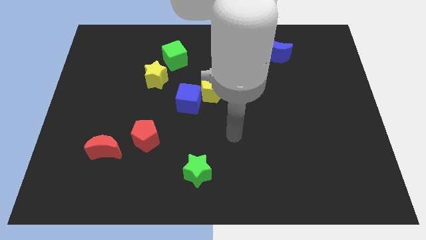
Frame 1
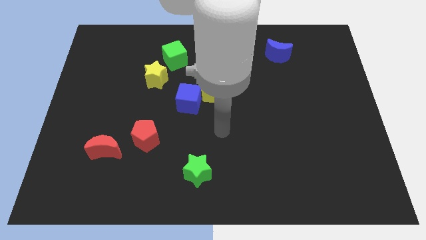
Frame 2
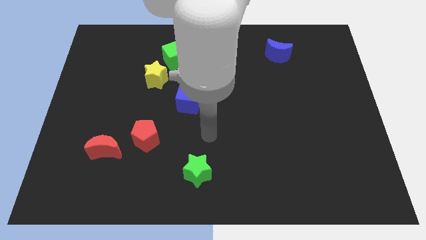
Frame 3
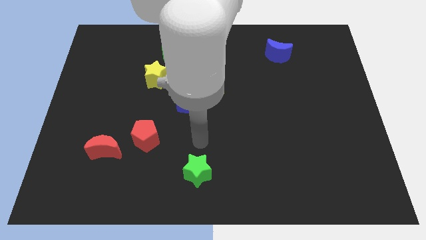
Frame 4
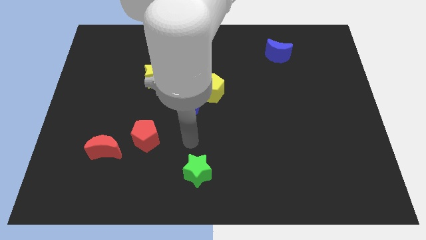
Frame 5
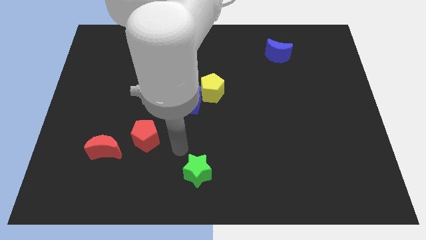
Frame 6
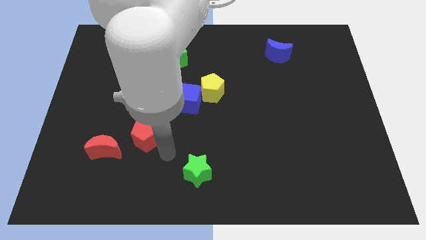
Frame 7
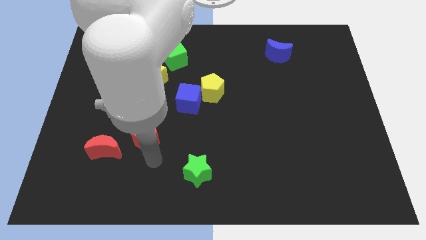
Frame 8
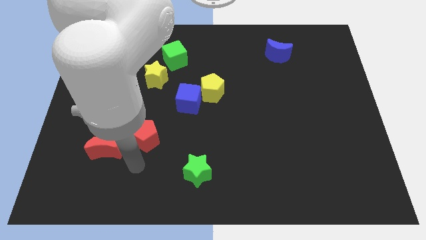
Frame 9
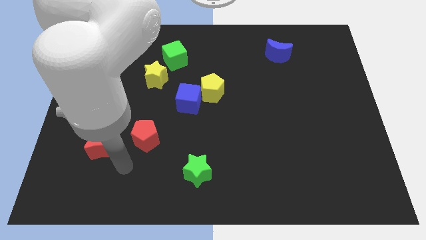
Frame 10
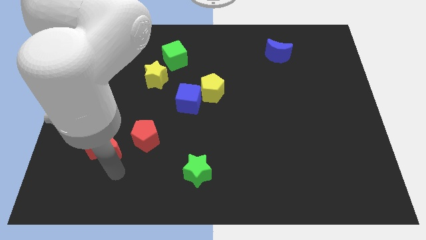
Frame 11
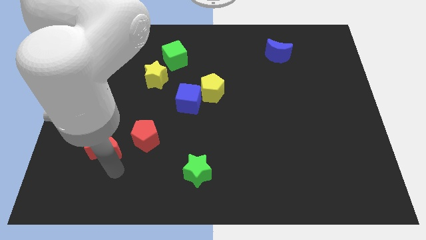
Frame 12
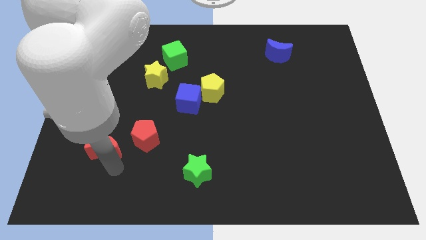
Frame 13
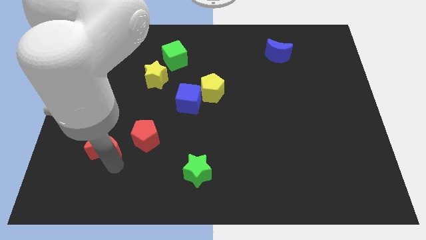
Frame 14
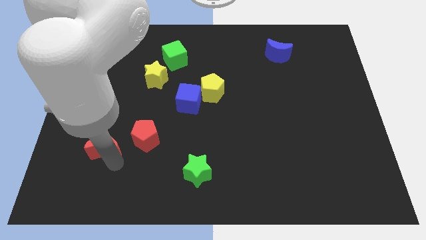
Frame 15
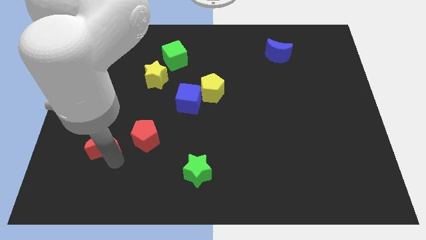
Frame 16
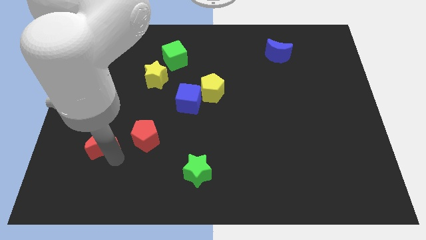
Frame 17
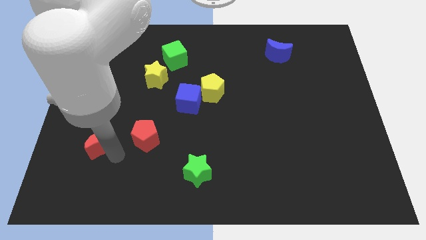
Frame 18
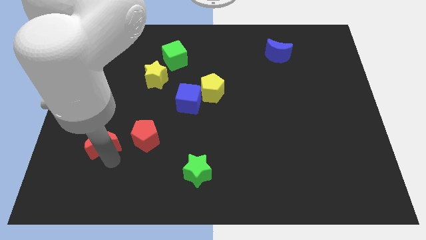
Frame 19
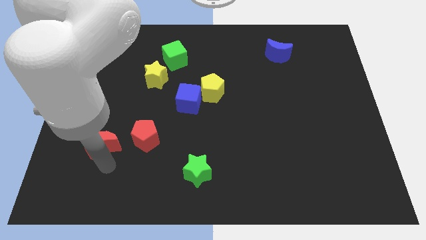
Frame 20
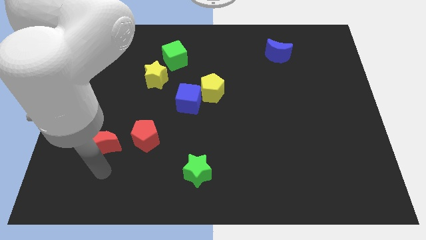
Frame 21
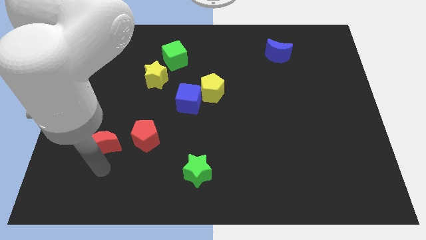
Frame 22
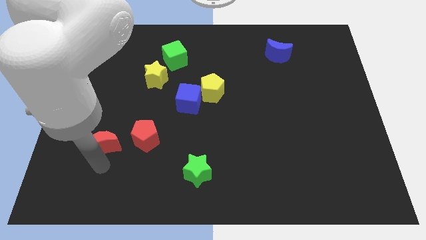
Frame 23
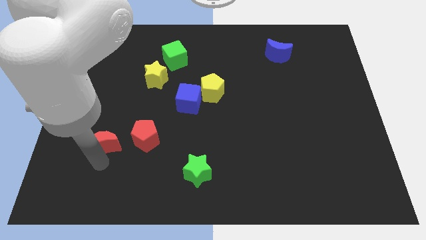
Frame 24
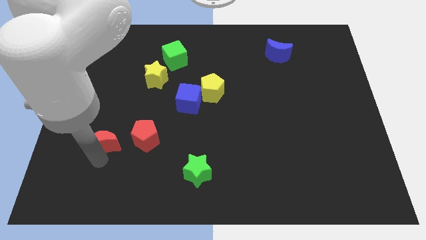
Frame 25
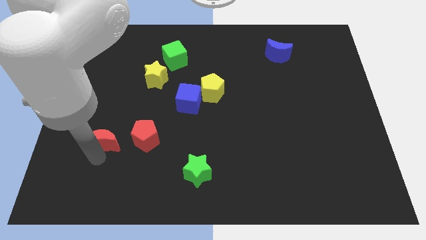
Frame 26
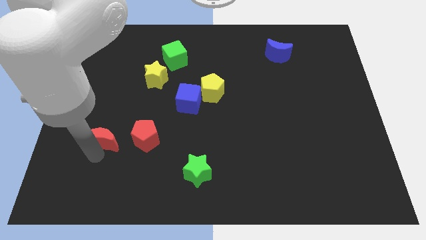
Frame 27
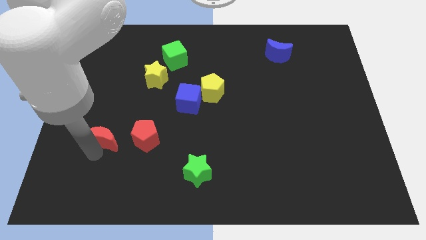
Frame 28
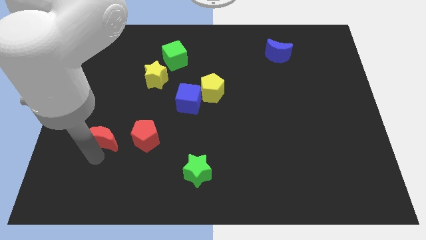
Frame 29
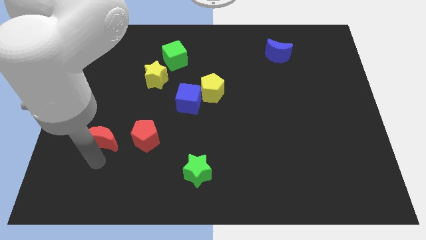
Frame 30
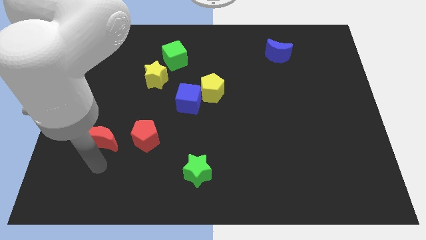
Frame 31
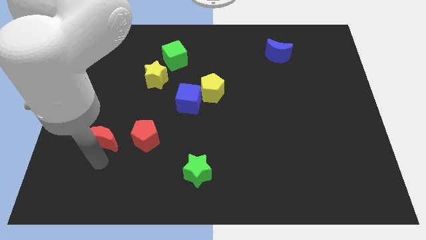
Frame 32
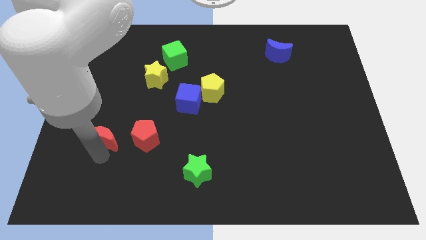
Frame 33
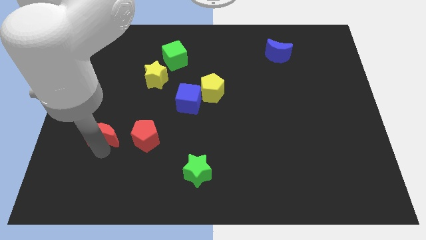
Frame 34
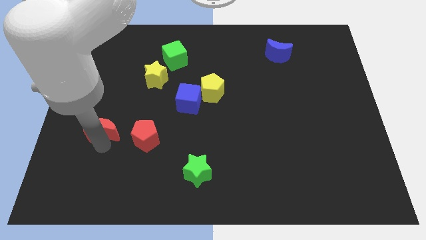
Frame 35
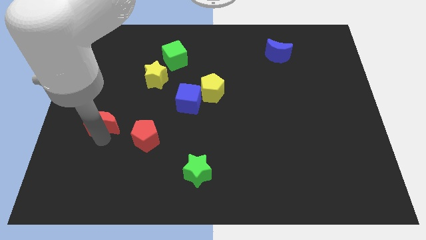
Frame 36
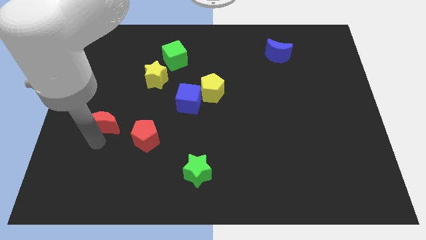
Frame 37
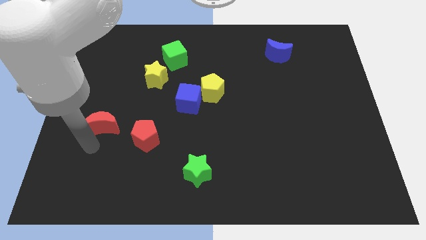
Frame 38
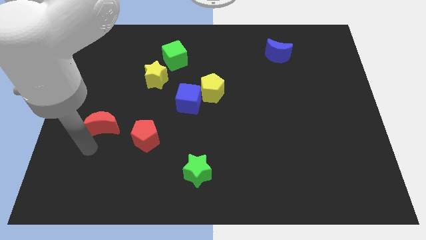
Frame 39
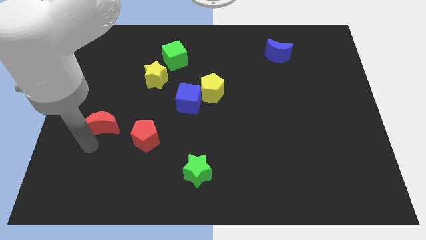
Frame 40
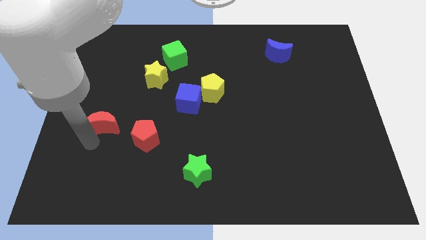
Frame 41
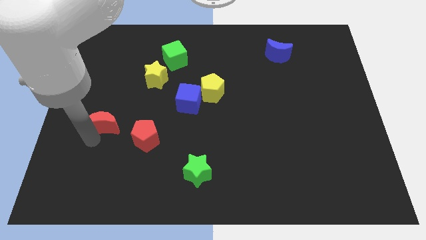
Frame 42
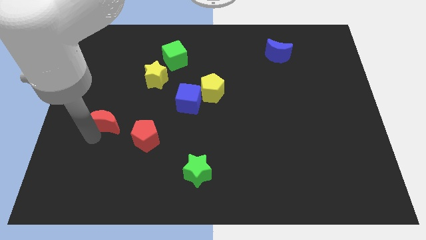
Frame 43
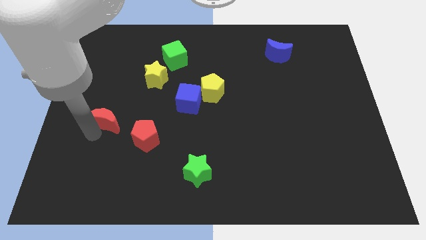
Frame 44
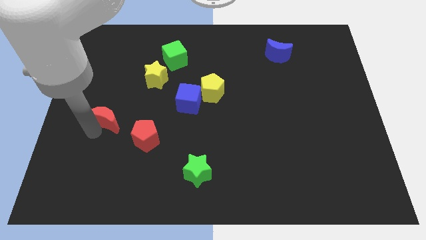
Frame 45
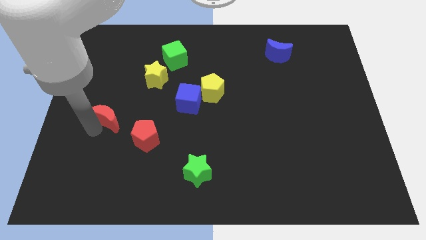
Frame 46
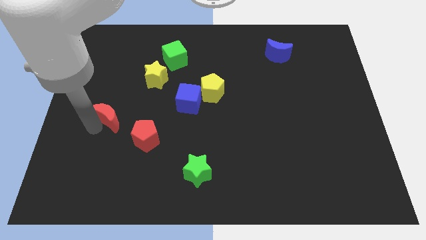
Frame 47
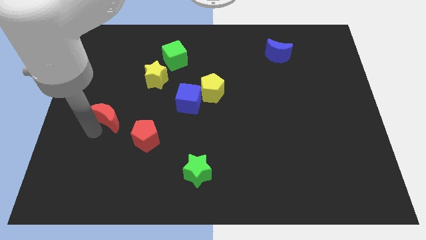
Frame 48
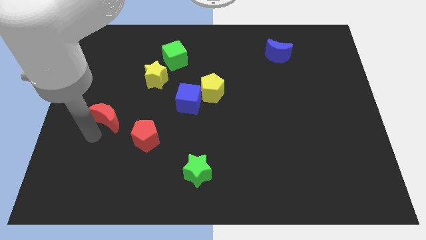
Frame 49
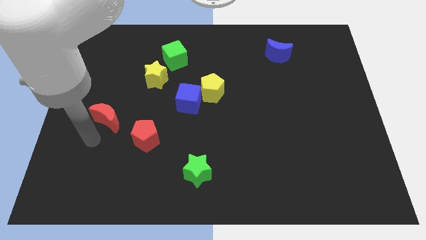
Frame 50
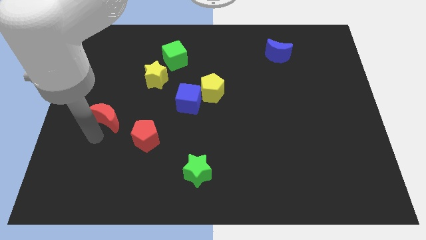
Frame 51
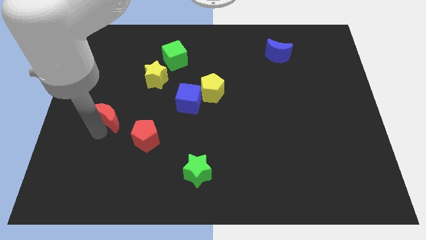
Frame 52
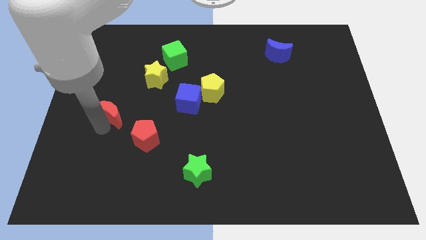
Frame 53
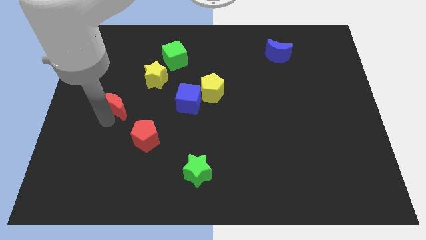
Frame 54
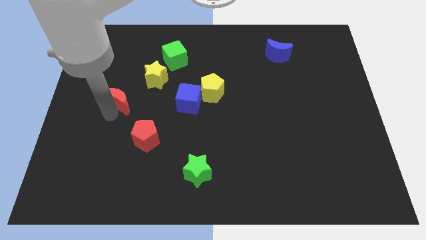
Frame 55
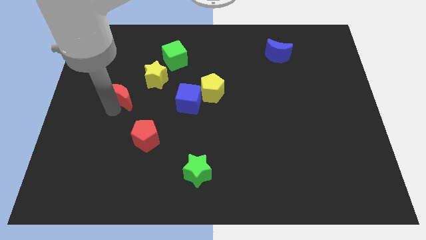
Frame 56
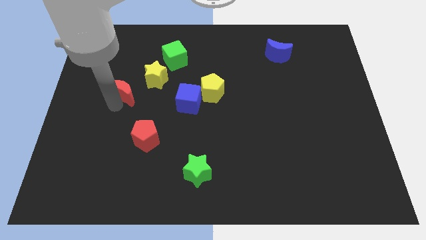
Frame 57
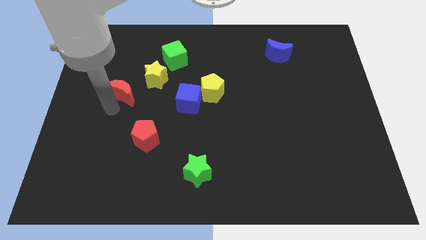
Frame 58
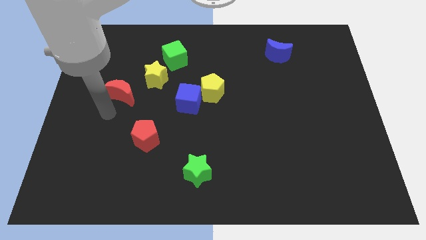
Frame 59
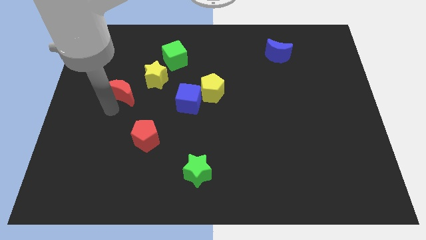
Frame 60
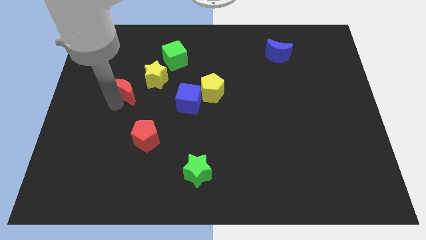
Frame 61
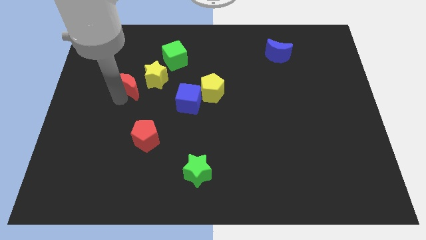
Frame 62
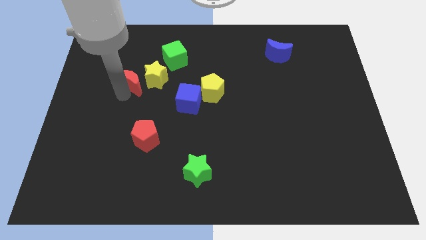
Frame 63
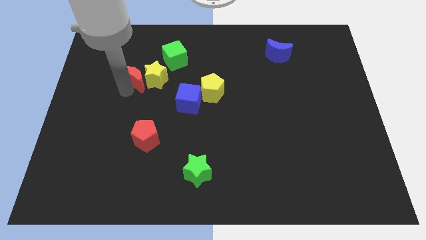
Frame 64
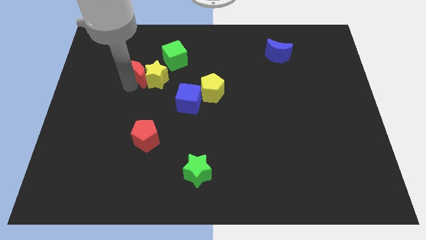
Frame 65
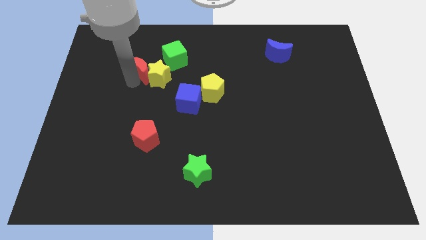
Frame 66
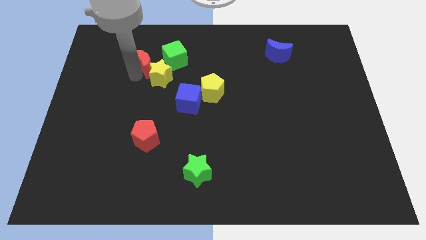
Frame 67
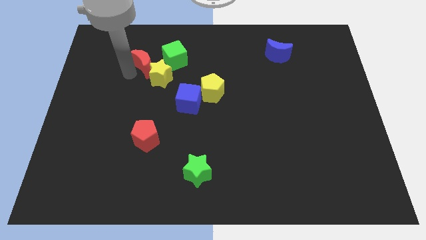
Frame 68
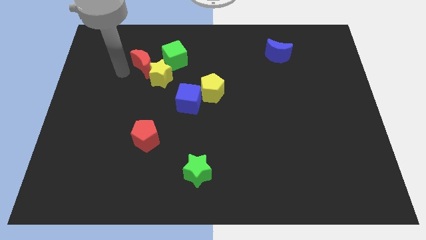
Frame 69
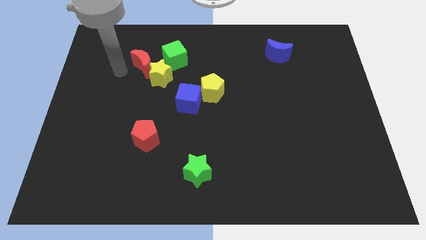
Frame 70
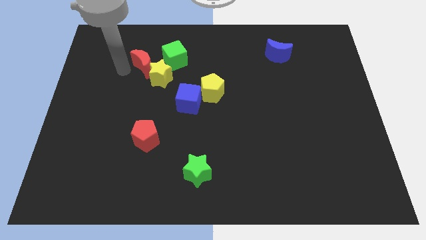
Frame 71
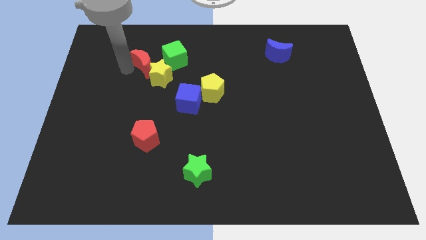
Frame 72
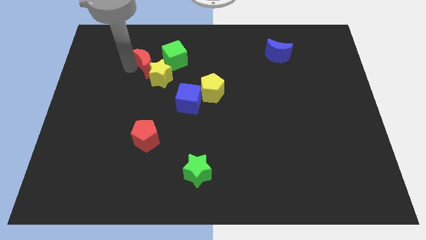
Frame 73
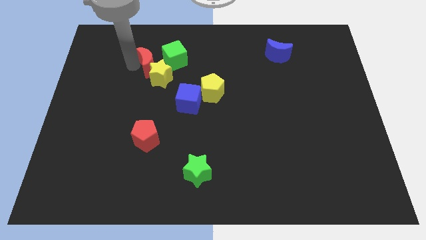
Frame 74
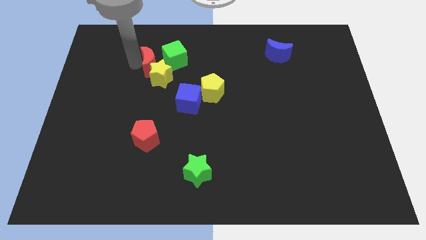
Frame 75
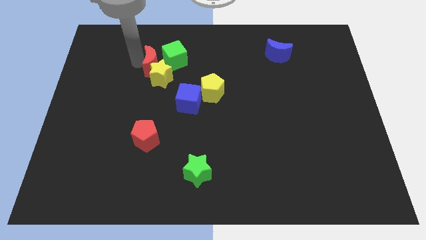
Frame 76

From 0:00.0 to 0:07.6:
put the red moon to the green cube
